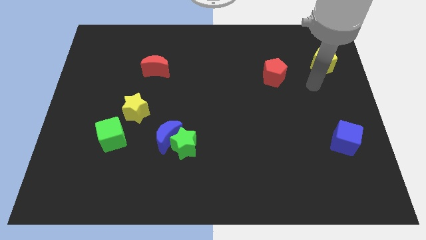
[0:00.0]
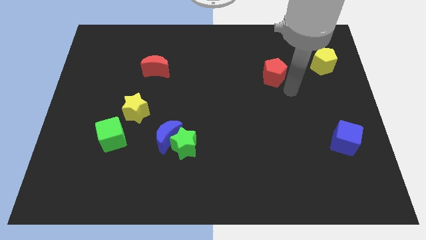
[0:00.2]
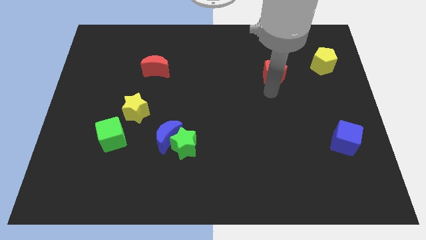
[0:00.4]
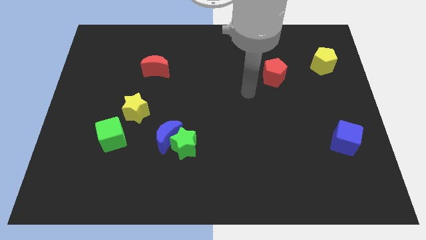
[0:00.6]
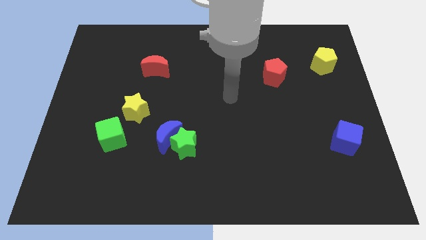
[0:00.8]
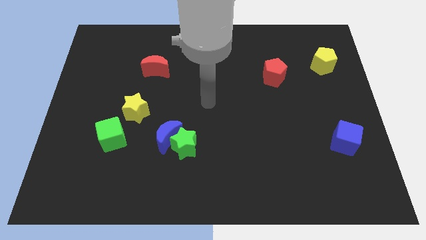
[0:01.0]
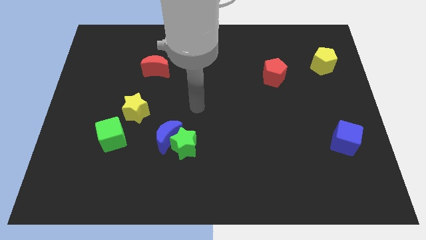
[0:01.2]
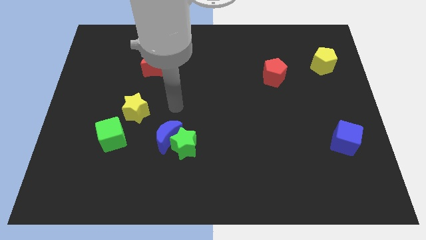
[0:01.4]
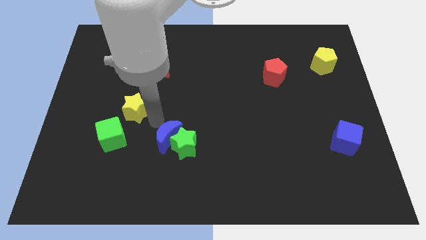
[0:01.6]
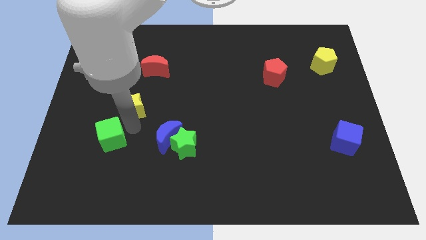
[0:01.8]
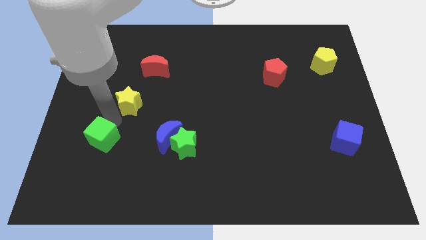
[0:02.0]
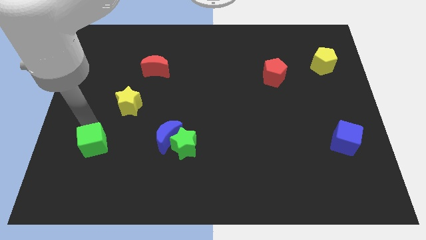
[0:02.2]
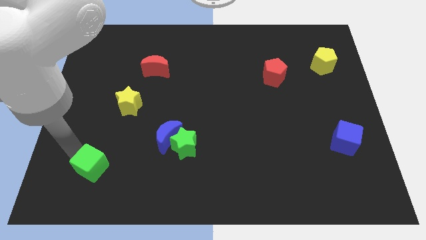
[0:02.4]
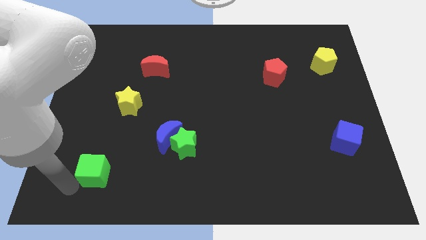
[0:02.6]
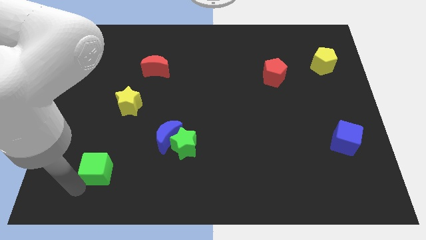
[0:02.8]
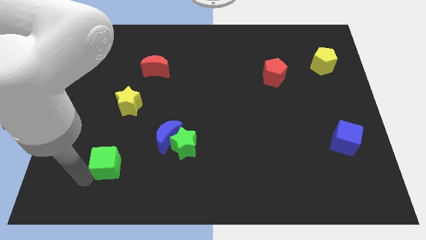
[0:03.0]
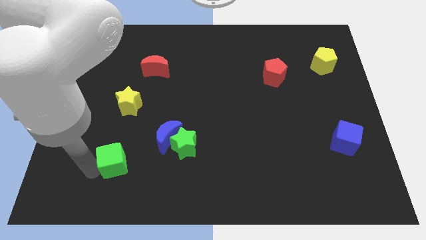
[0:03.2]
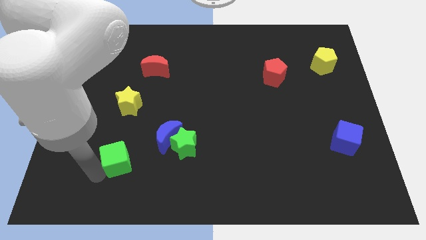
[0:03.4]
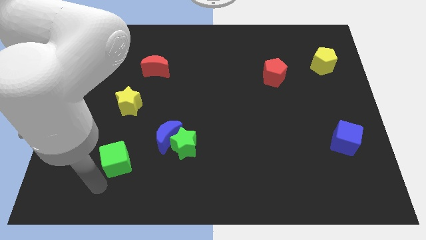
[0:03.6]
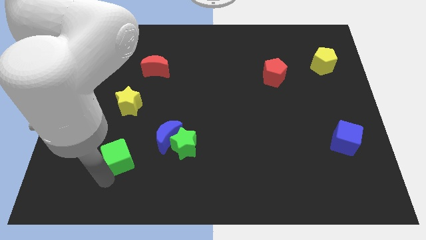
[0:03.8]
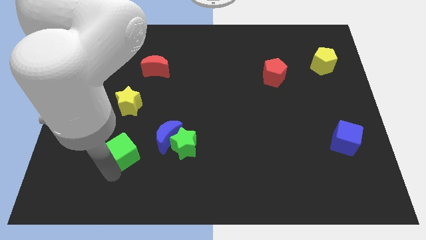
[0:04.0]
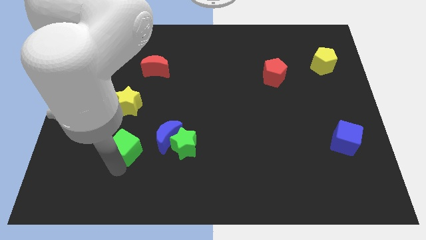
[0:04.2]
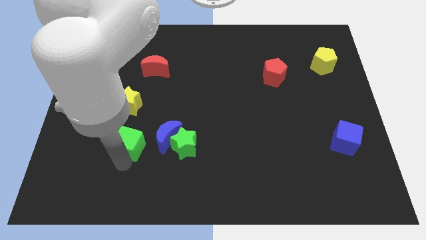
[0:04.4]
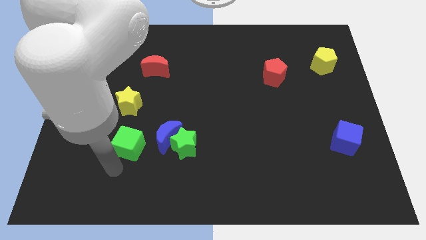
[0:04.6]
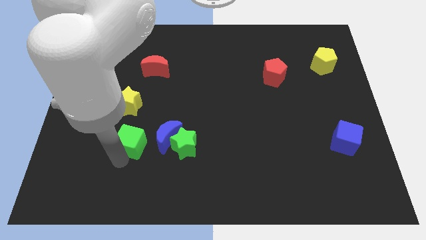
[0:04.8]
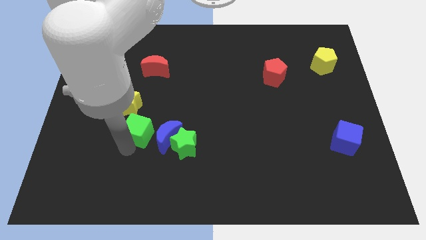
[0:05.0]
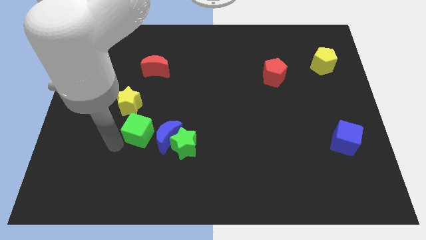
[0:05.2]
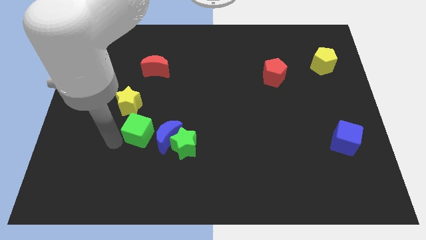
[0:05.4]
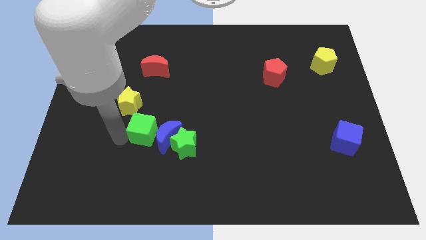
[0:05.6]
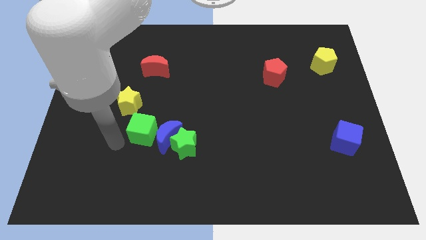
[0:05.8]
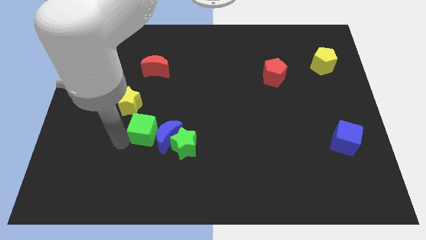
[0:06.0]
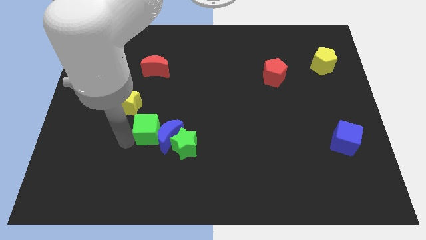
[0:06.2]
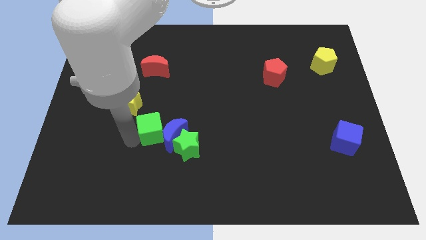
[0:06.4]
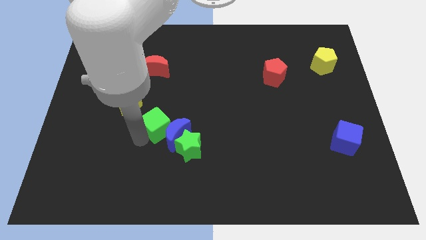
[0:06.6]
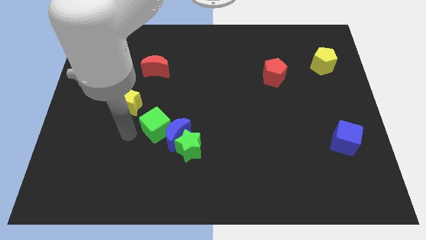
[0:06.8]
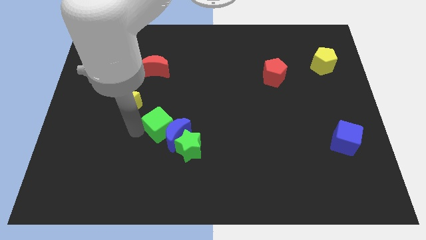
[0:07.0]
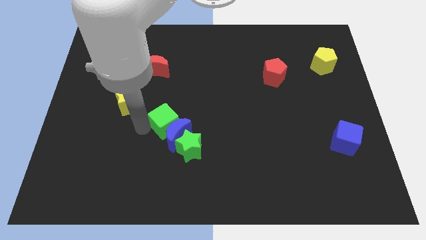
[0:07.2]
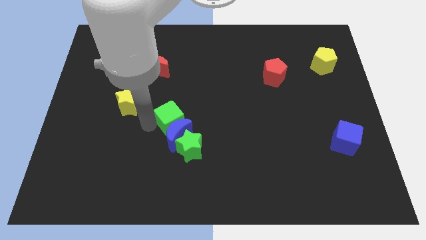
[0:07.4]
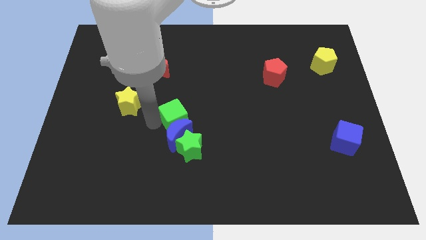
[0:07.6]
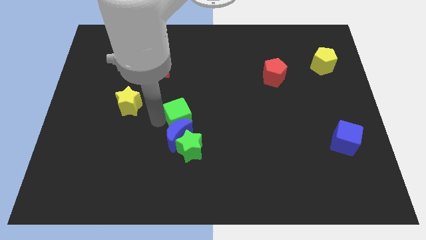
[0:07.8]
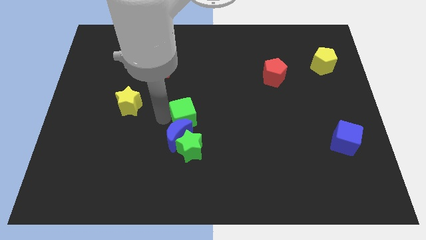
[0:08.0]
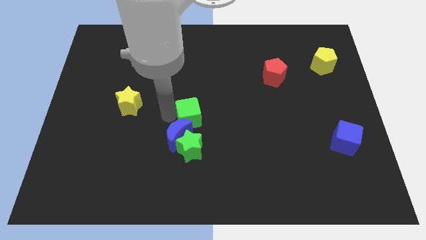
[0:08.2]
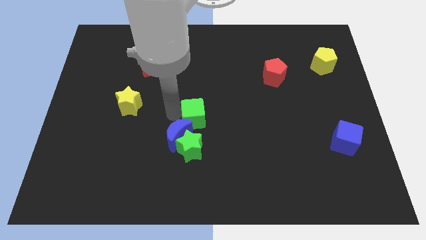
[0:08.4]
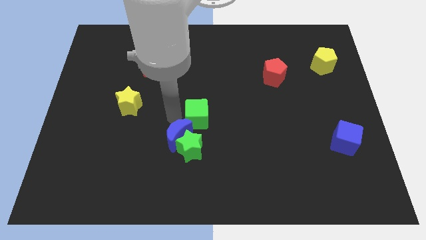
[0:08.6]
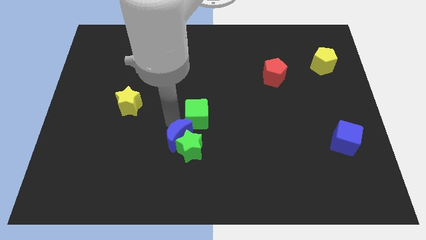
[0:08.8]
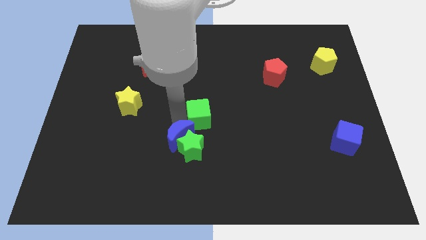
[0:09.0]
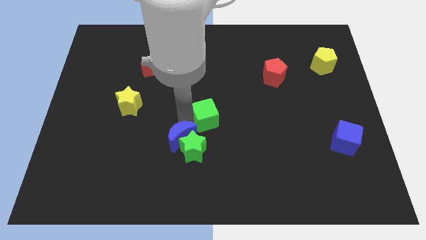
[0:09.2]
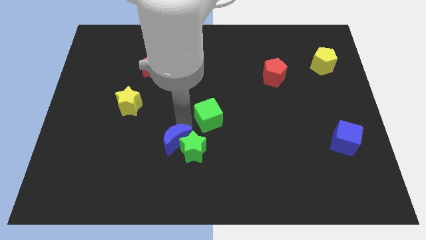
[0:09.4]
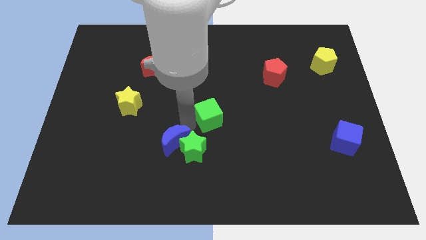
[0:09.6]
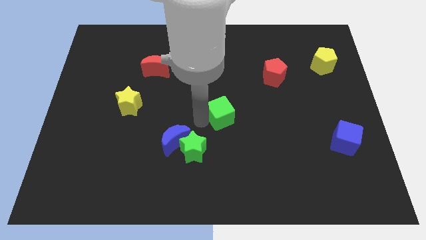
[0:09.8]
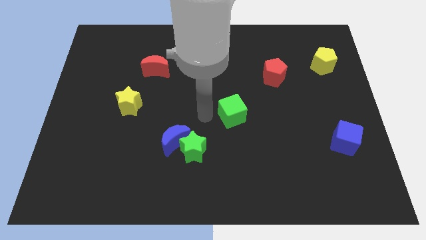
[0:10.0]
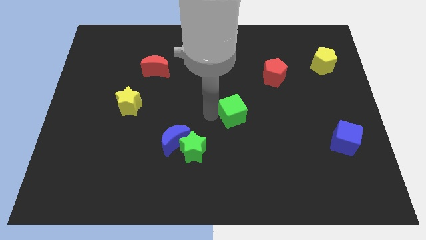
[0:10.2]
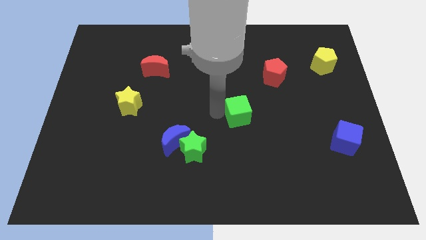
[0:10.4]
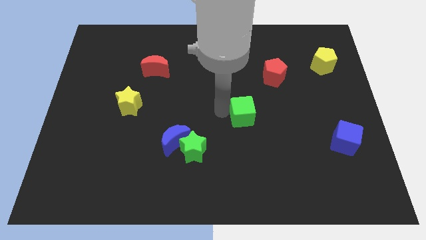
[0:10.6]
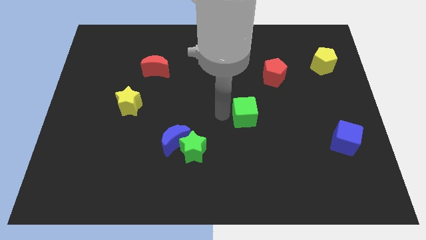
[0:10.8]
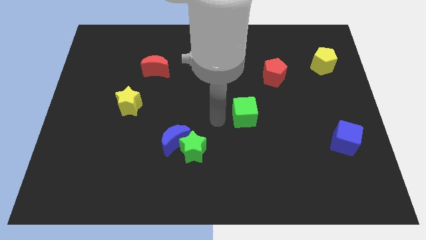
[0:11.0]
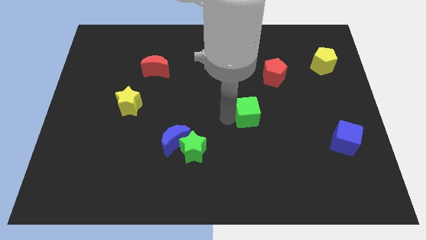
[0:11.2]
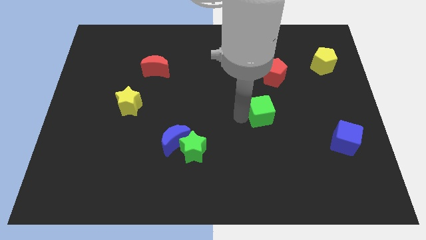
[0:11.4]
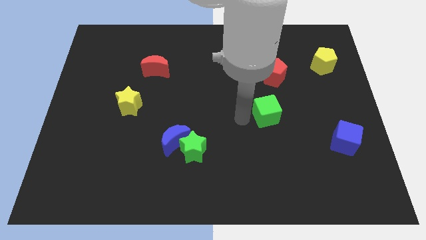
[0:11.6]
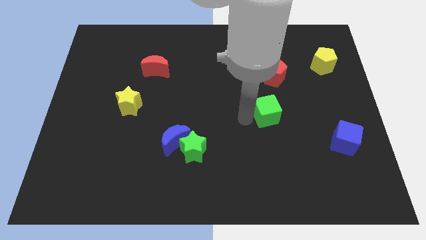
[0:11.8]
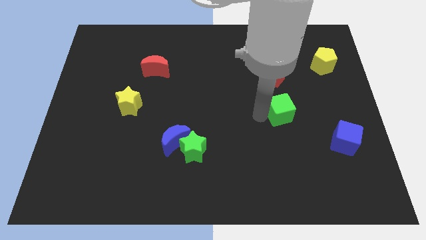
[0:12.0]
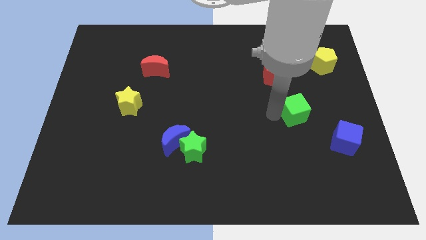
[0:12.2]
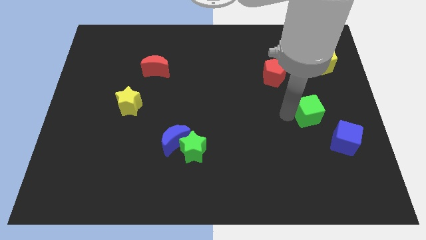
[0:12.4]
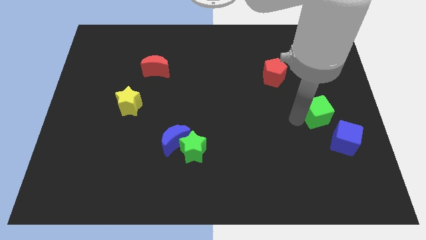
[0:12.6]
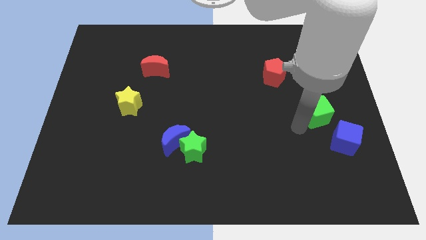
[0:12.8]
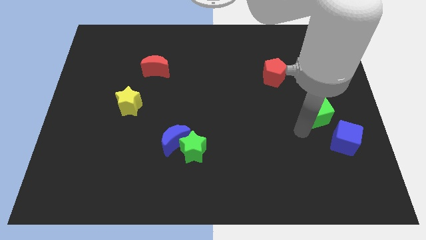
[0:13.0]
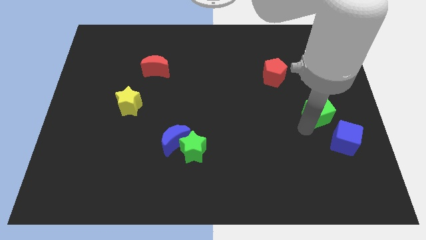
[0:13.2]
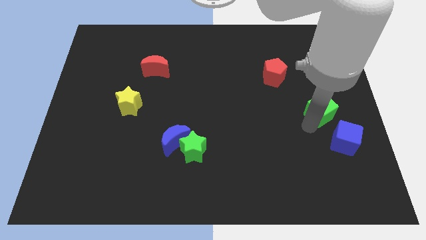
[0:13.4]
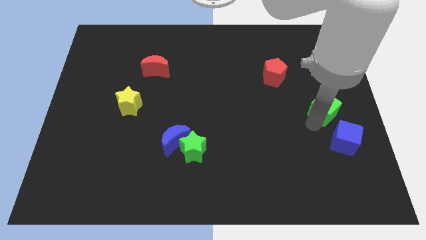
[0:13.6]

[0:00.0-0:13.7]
move the green cube to the right side of the board
